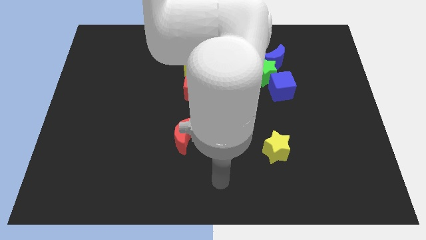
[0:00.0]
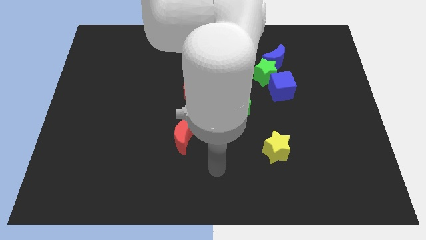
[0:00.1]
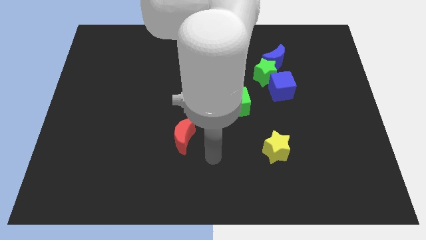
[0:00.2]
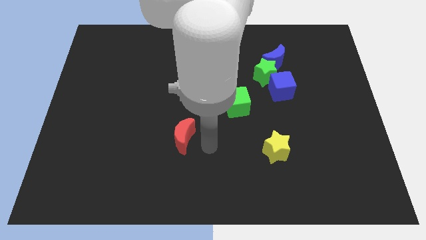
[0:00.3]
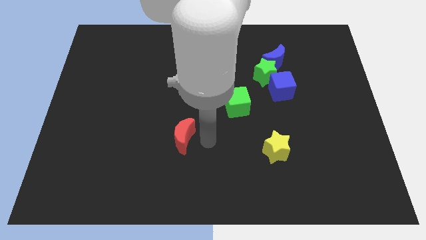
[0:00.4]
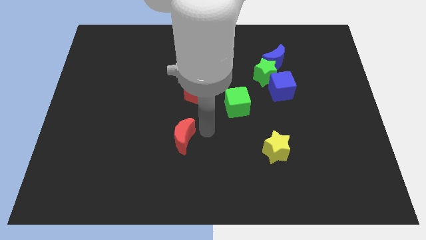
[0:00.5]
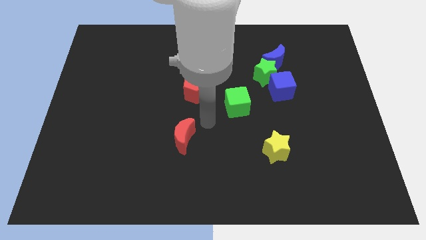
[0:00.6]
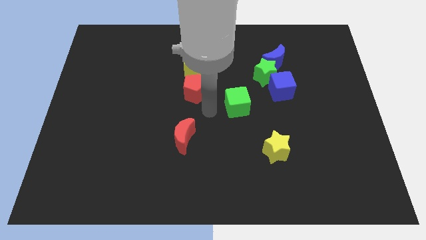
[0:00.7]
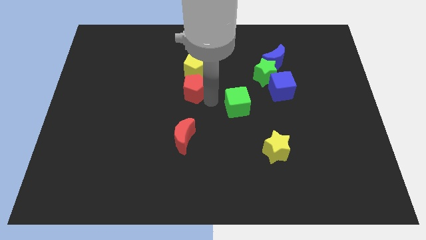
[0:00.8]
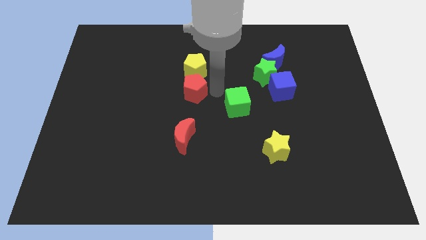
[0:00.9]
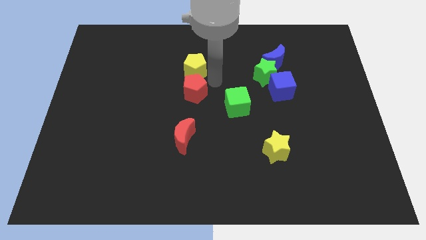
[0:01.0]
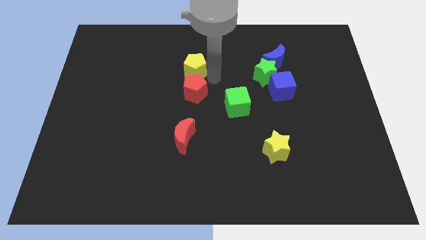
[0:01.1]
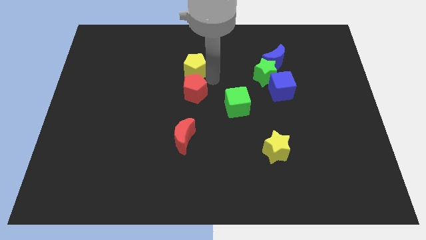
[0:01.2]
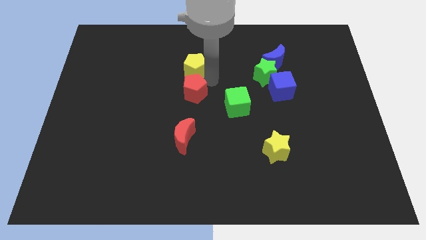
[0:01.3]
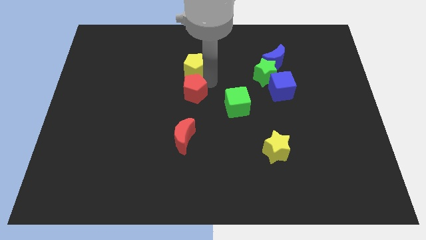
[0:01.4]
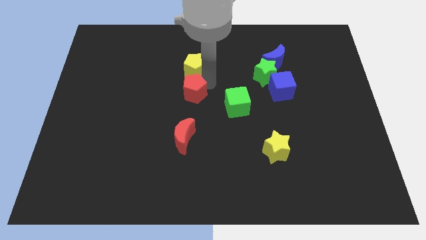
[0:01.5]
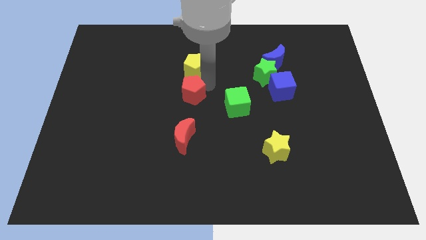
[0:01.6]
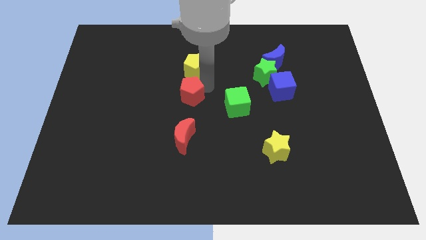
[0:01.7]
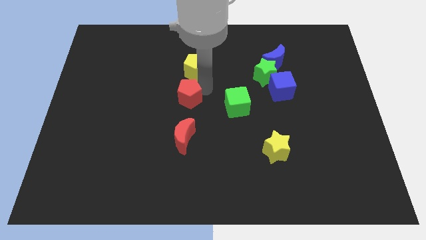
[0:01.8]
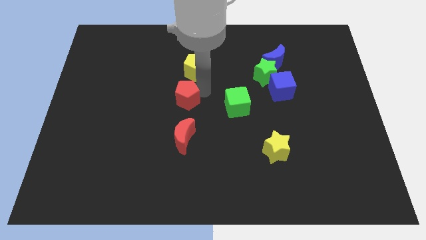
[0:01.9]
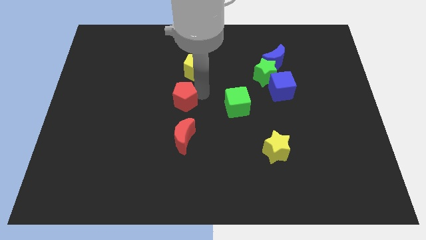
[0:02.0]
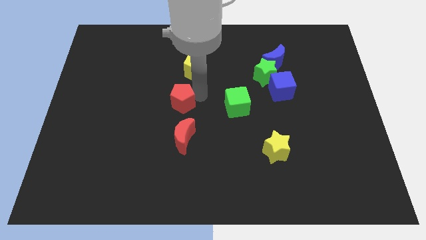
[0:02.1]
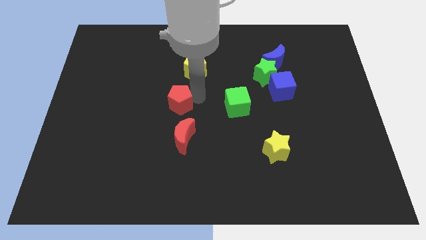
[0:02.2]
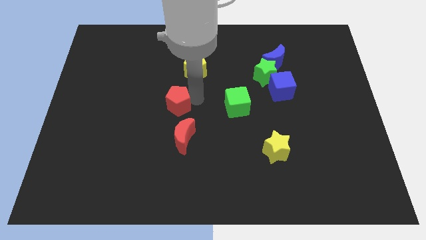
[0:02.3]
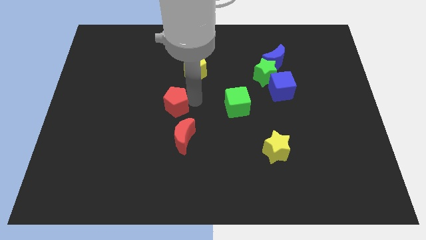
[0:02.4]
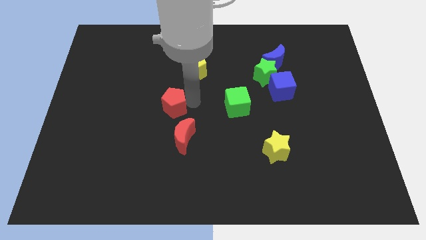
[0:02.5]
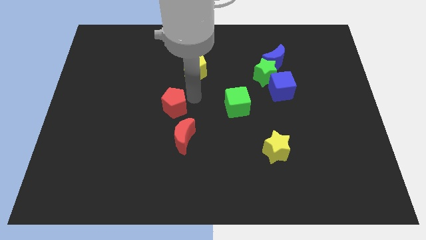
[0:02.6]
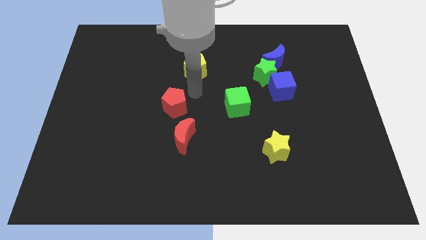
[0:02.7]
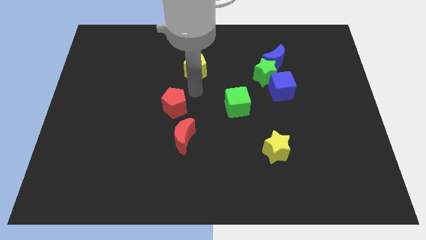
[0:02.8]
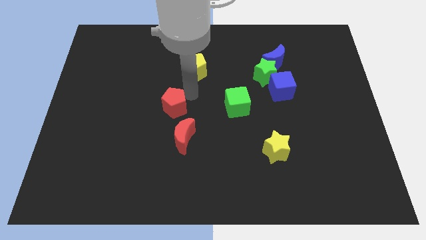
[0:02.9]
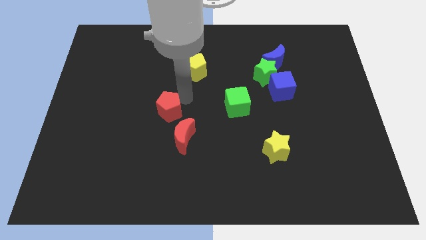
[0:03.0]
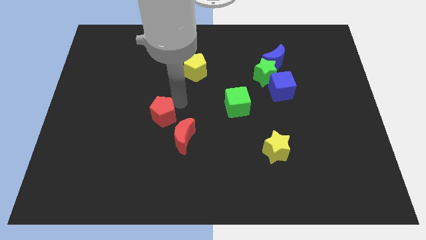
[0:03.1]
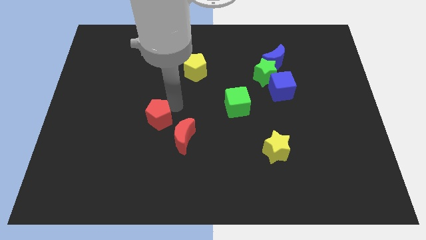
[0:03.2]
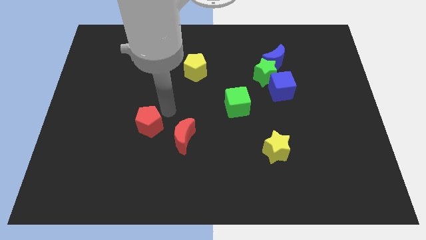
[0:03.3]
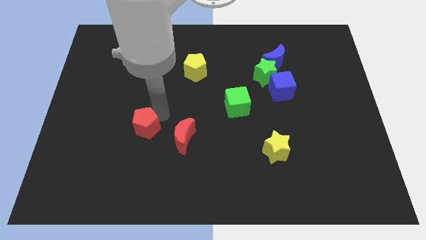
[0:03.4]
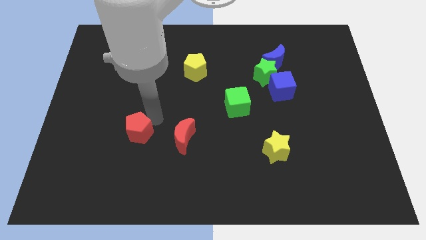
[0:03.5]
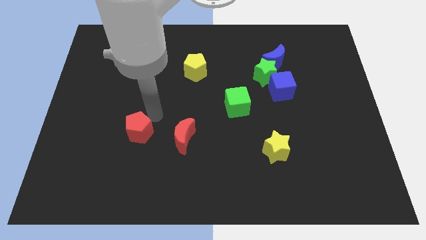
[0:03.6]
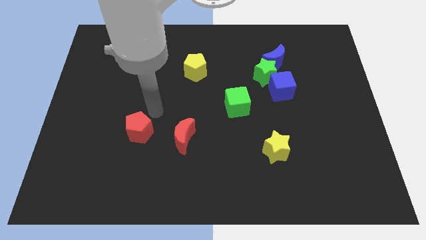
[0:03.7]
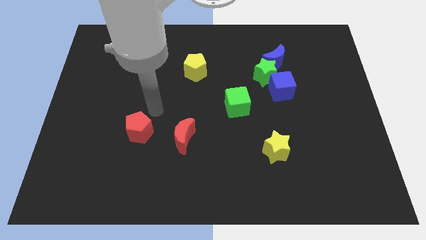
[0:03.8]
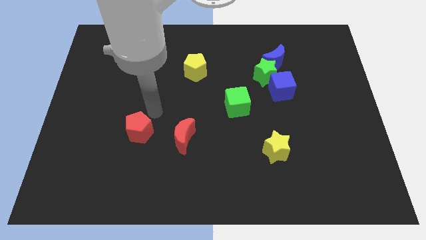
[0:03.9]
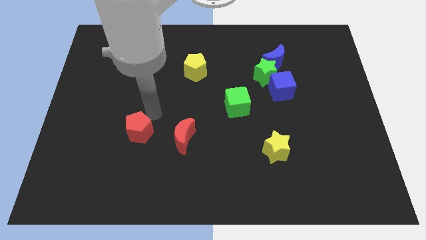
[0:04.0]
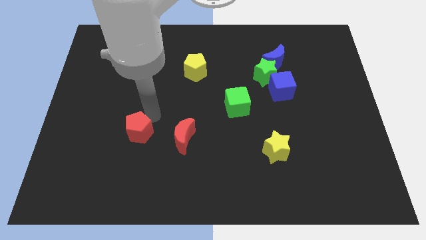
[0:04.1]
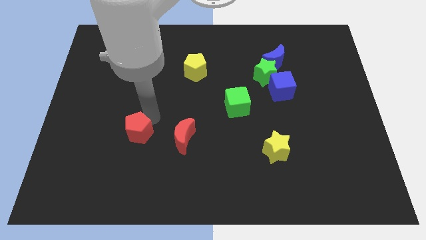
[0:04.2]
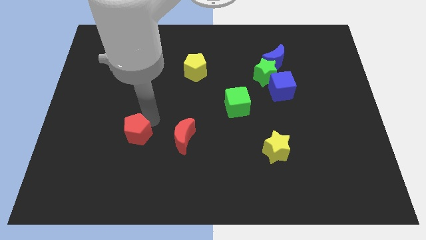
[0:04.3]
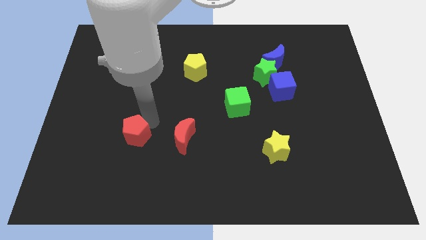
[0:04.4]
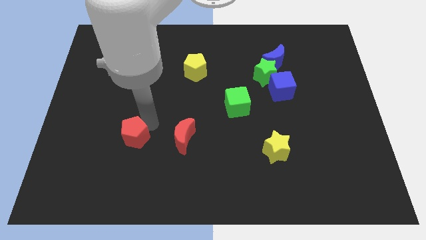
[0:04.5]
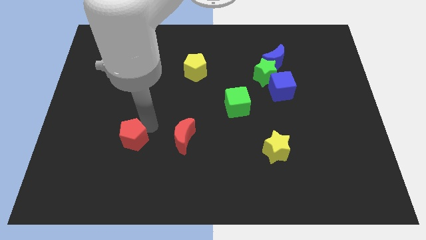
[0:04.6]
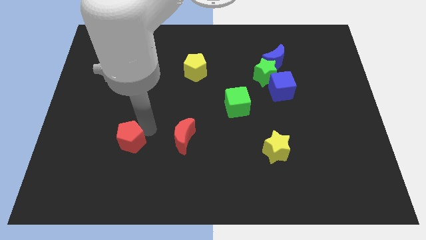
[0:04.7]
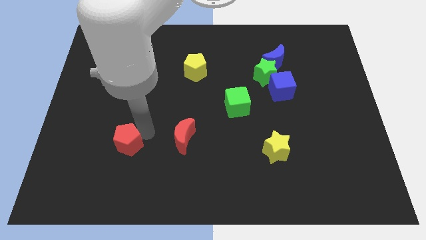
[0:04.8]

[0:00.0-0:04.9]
slide the red pentagon down and left diagonally

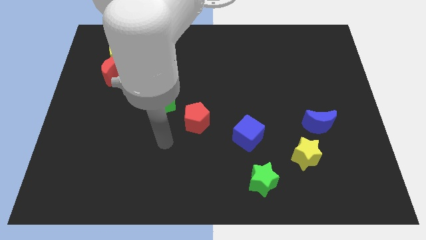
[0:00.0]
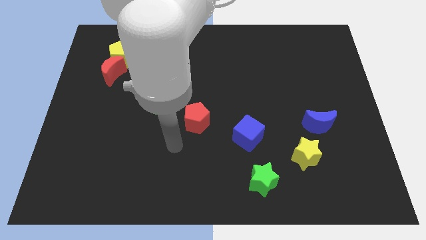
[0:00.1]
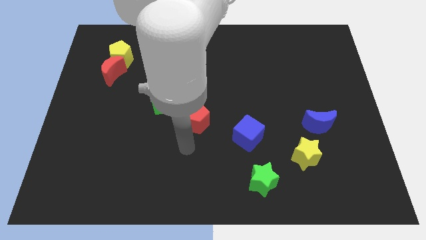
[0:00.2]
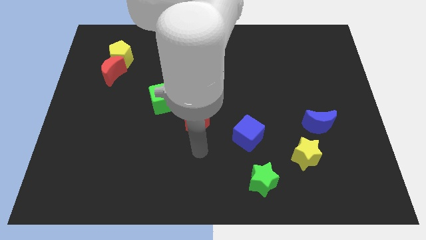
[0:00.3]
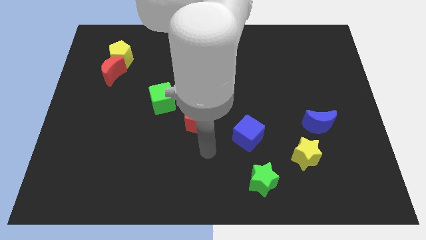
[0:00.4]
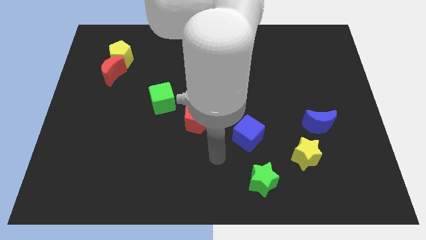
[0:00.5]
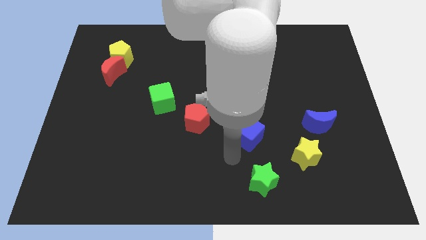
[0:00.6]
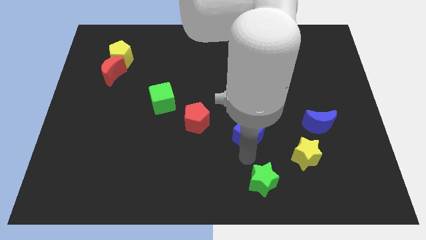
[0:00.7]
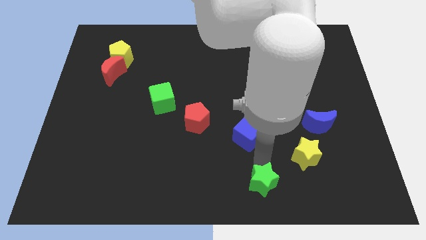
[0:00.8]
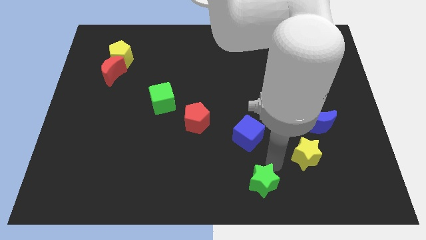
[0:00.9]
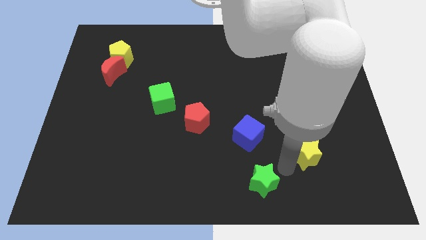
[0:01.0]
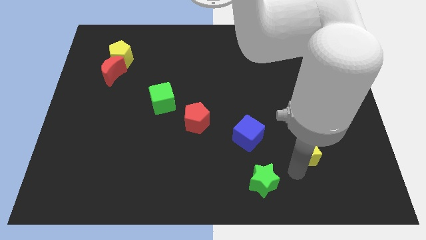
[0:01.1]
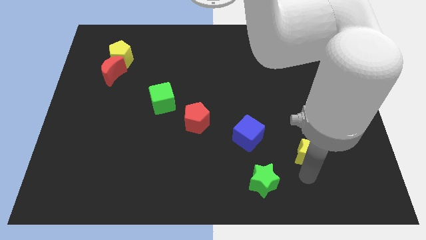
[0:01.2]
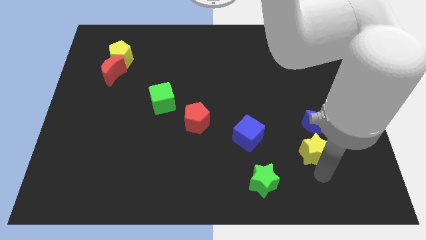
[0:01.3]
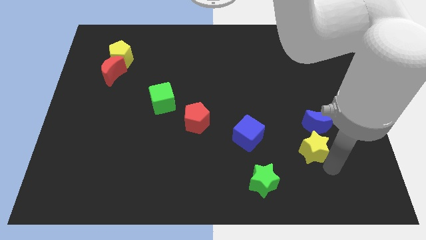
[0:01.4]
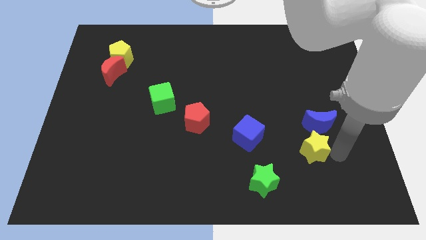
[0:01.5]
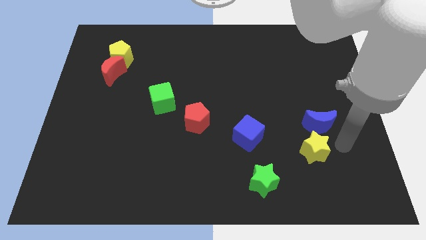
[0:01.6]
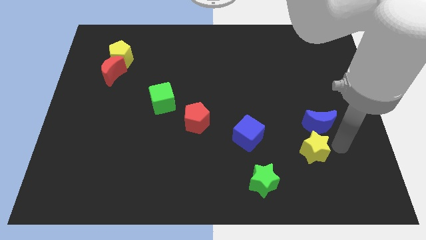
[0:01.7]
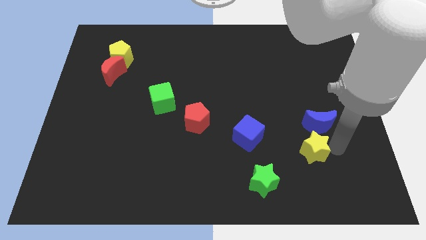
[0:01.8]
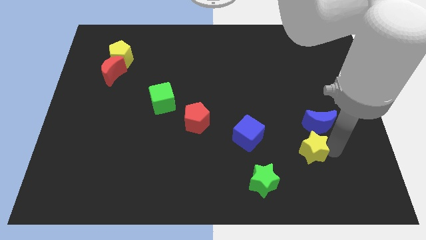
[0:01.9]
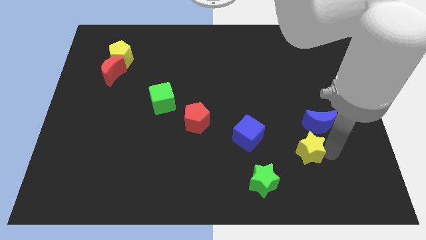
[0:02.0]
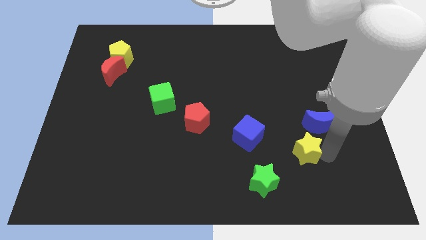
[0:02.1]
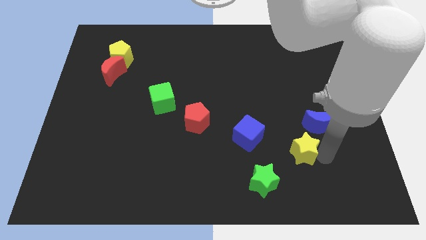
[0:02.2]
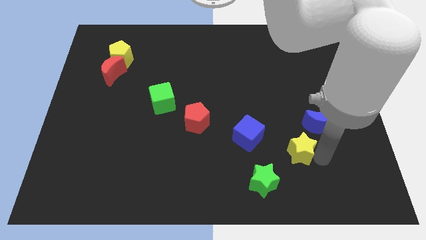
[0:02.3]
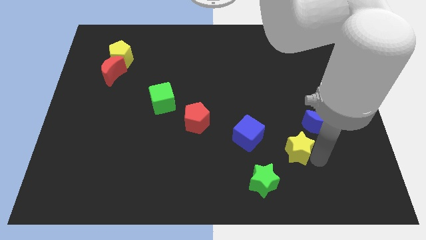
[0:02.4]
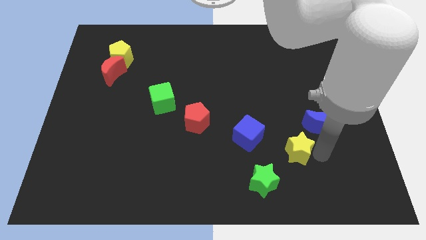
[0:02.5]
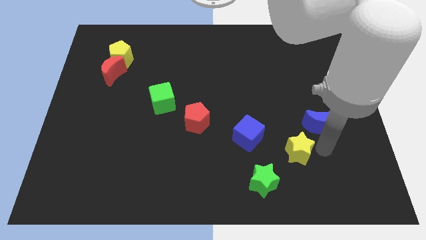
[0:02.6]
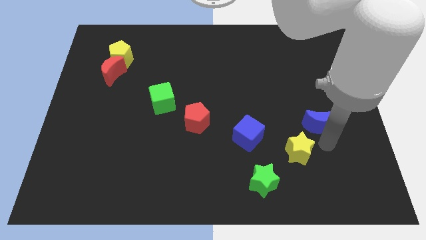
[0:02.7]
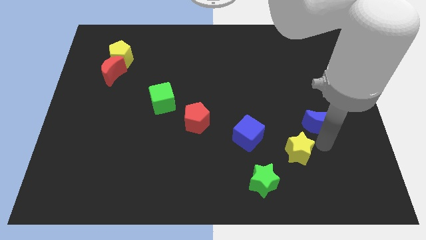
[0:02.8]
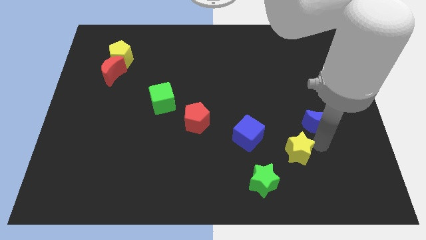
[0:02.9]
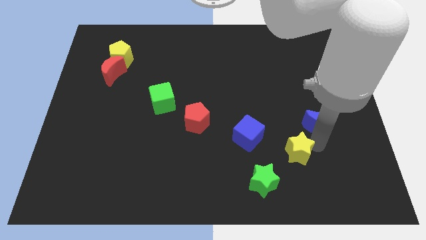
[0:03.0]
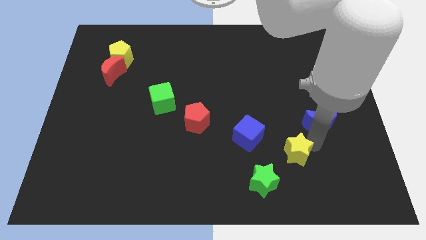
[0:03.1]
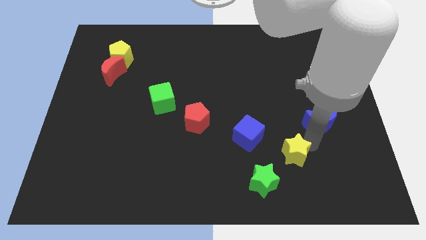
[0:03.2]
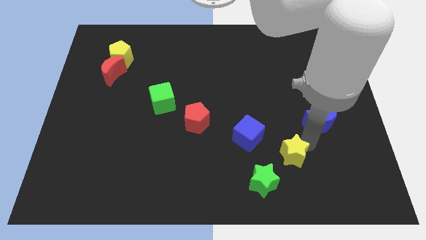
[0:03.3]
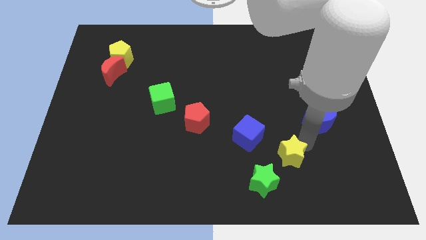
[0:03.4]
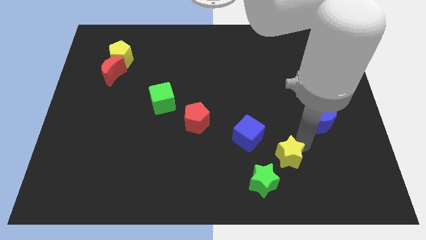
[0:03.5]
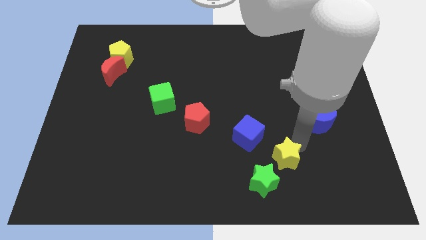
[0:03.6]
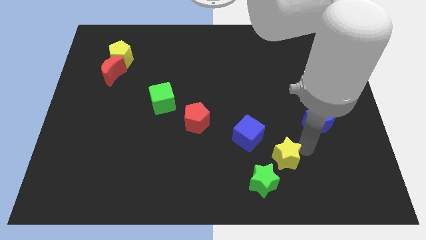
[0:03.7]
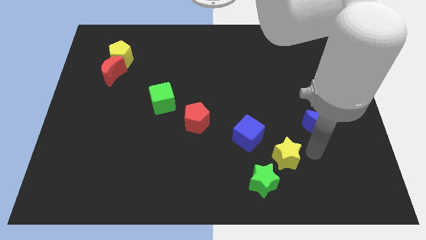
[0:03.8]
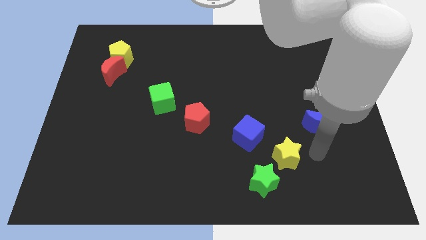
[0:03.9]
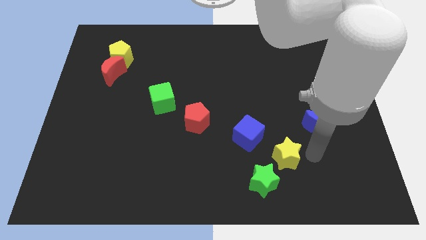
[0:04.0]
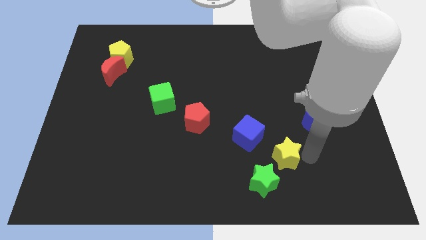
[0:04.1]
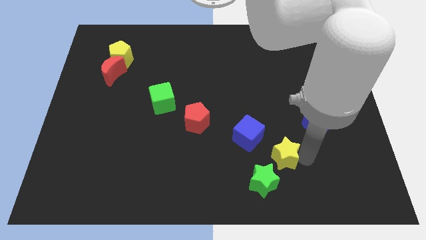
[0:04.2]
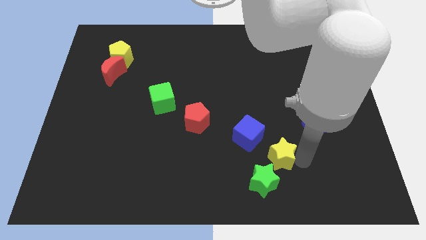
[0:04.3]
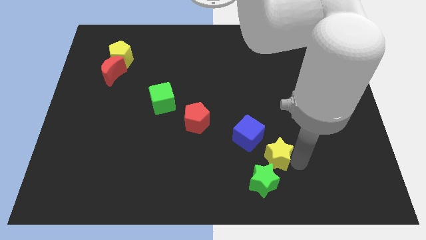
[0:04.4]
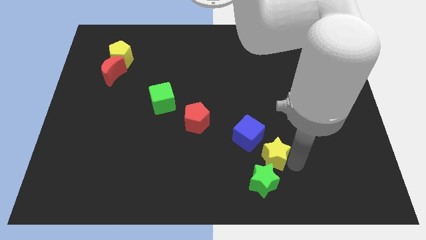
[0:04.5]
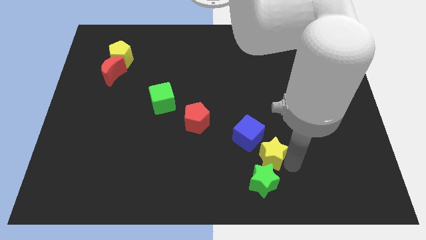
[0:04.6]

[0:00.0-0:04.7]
push the yellow star left a little bit
